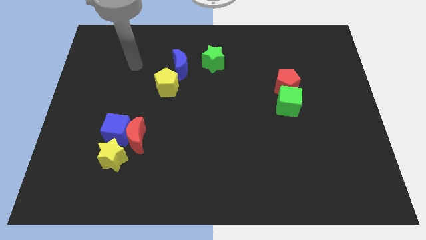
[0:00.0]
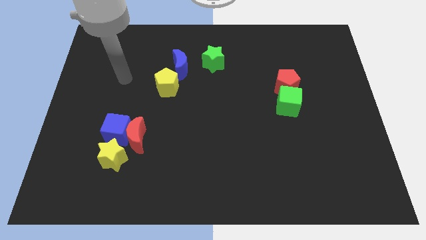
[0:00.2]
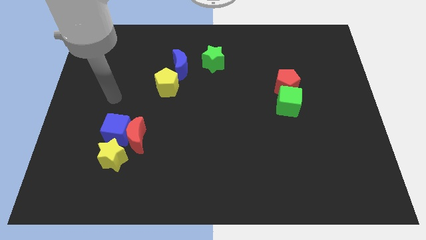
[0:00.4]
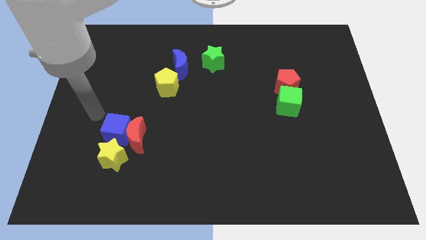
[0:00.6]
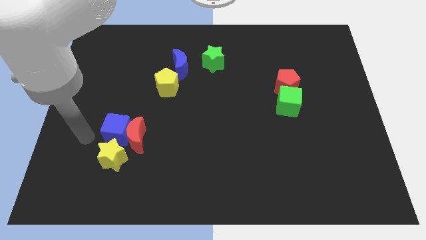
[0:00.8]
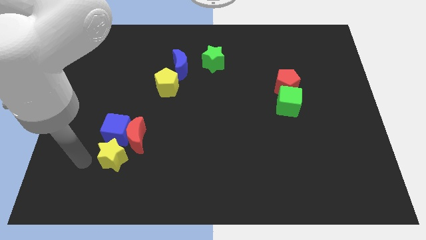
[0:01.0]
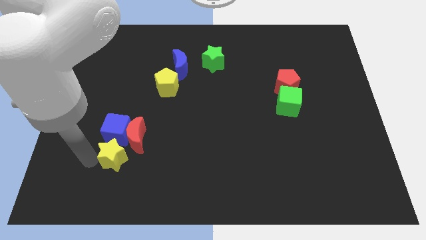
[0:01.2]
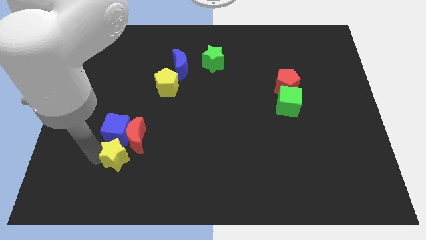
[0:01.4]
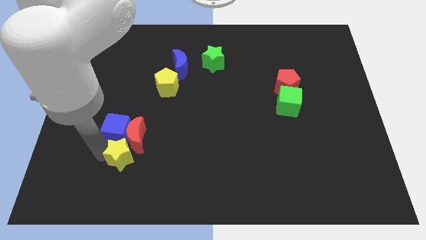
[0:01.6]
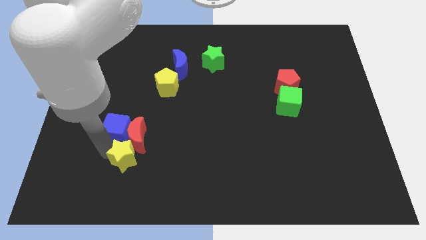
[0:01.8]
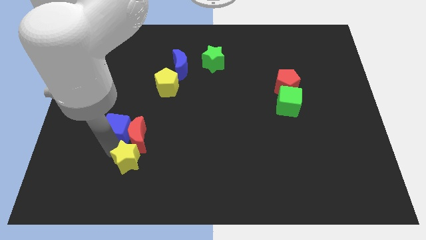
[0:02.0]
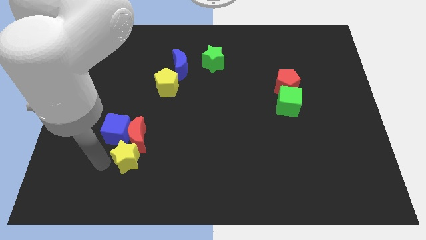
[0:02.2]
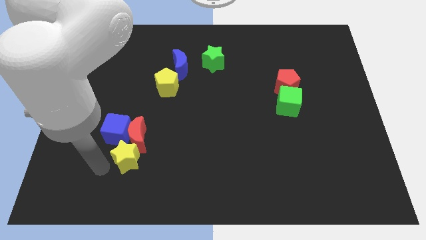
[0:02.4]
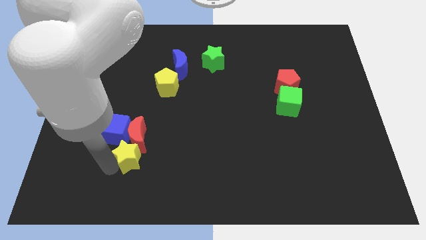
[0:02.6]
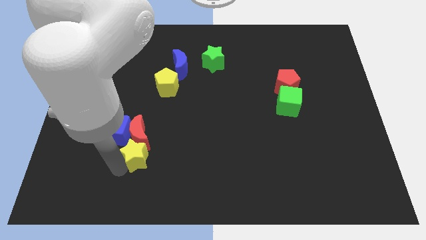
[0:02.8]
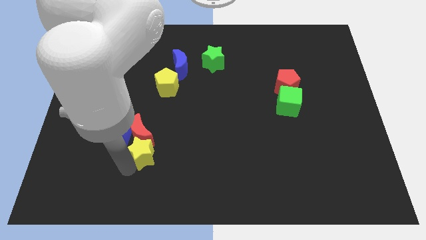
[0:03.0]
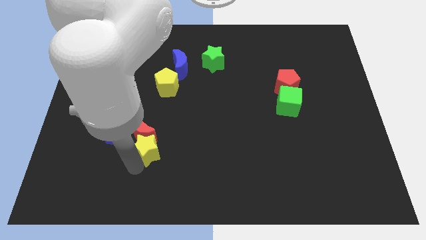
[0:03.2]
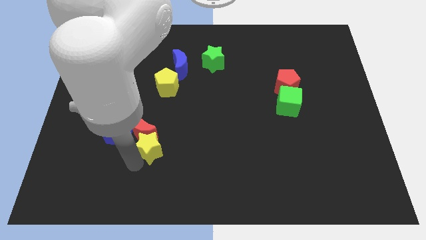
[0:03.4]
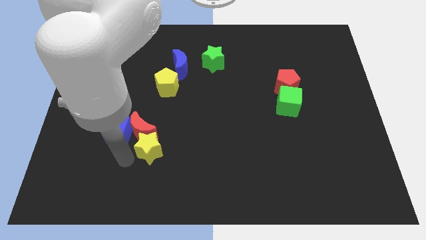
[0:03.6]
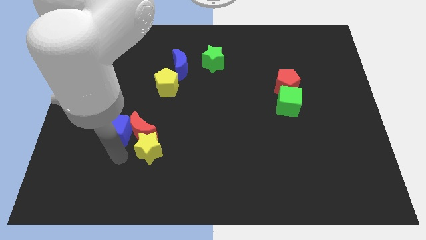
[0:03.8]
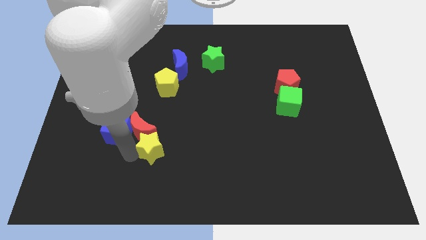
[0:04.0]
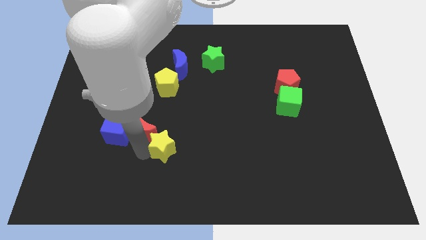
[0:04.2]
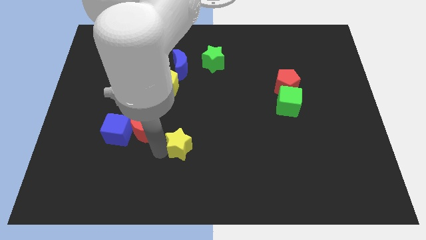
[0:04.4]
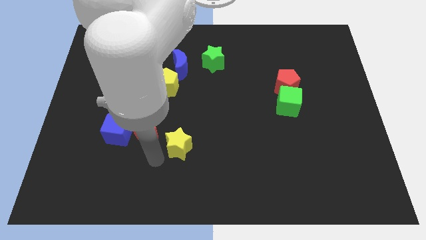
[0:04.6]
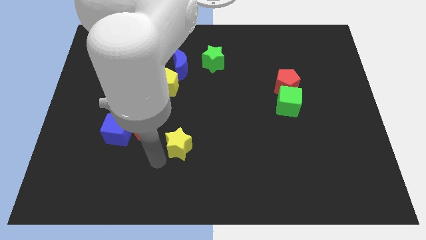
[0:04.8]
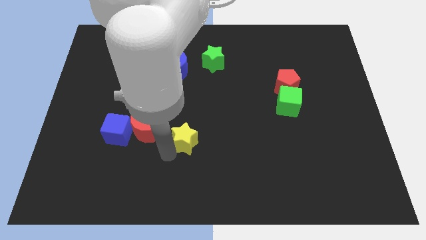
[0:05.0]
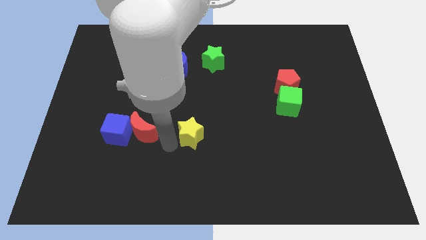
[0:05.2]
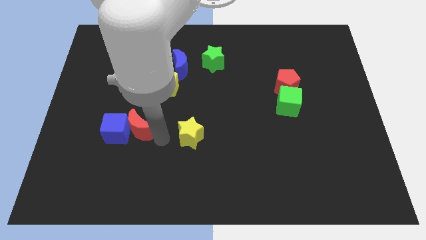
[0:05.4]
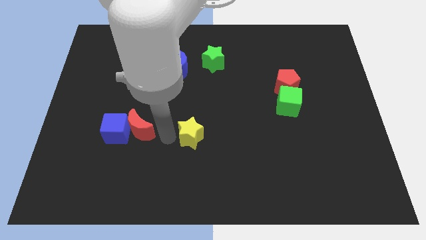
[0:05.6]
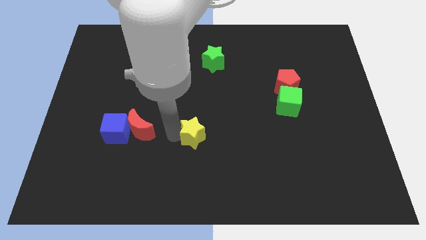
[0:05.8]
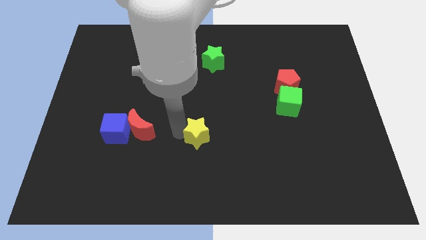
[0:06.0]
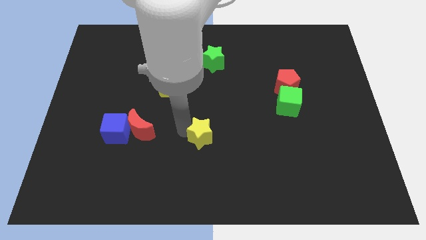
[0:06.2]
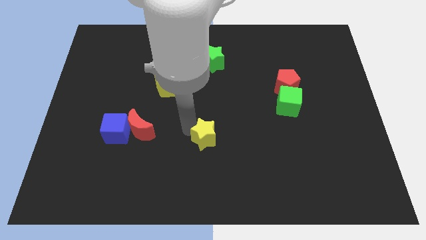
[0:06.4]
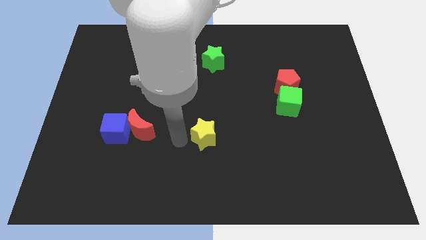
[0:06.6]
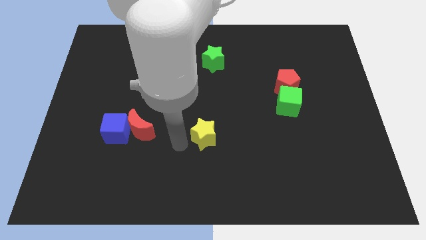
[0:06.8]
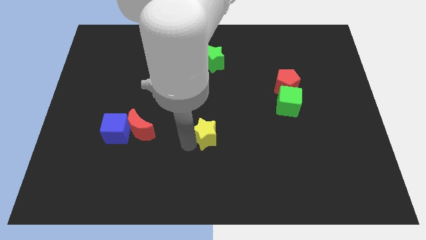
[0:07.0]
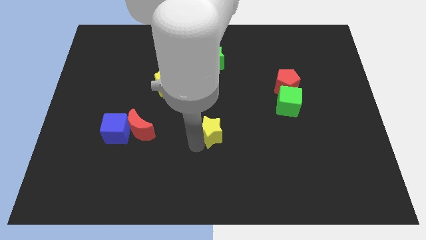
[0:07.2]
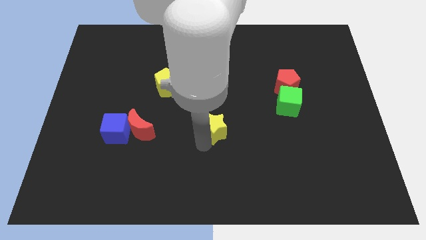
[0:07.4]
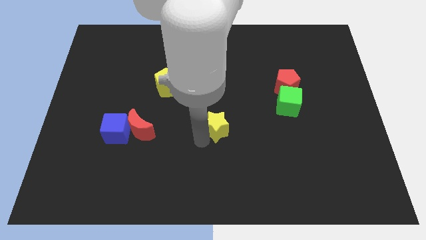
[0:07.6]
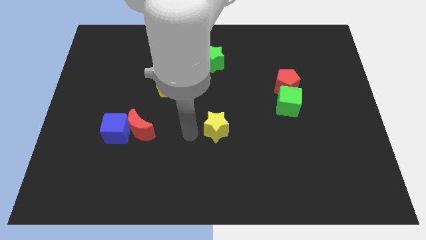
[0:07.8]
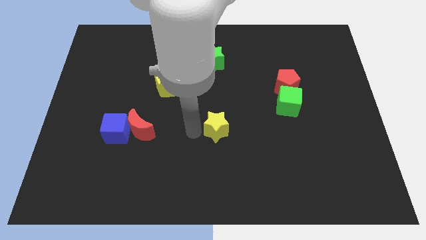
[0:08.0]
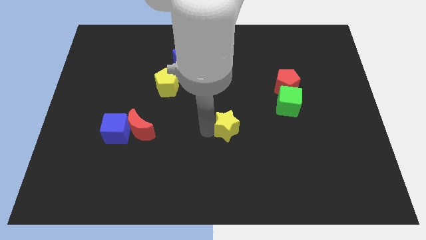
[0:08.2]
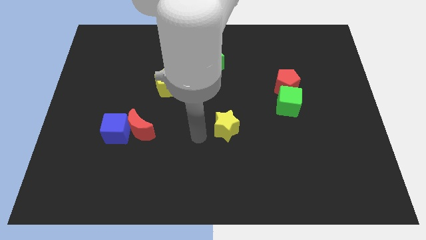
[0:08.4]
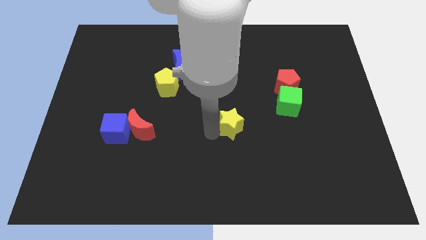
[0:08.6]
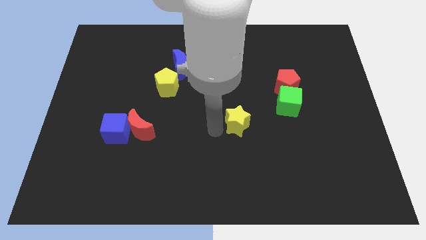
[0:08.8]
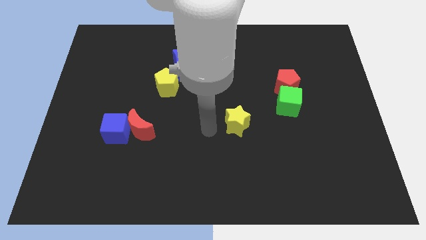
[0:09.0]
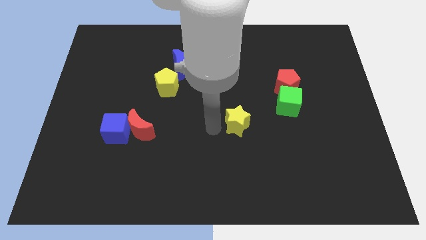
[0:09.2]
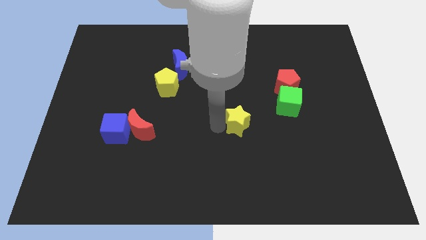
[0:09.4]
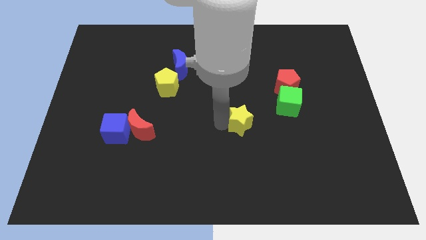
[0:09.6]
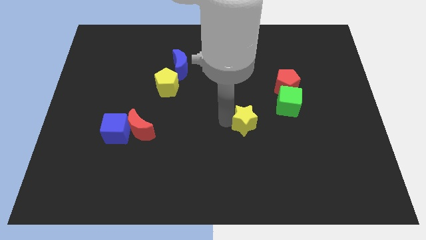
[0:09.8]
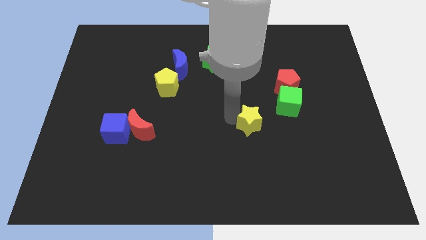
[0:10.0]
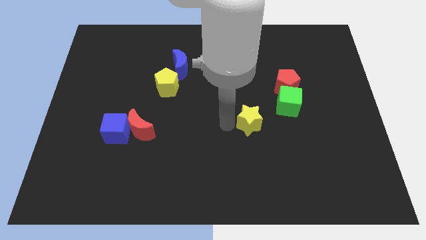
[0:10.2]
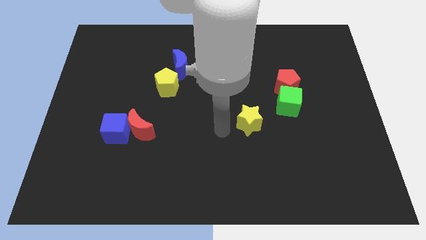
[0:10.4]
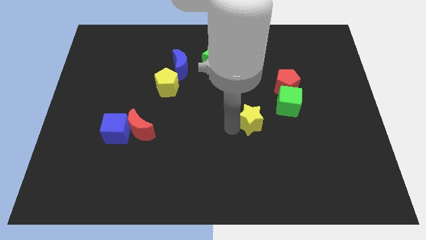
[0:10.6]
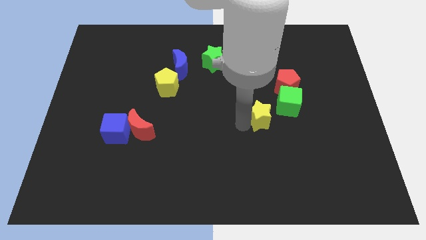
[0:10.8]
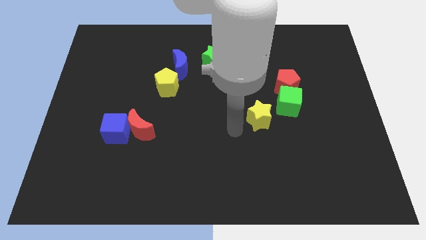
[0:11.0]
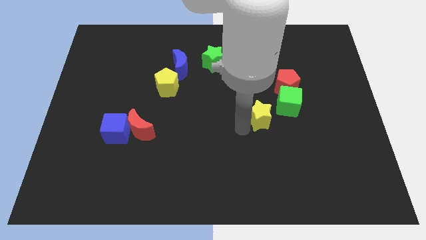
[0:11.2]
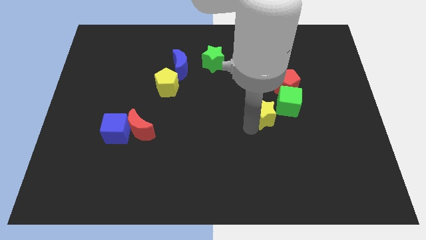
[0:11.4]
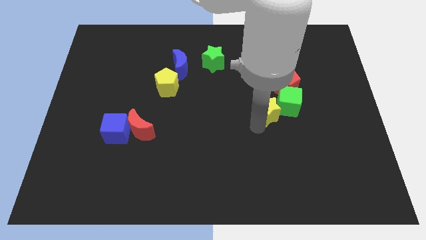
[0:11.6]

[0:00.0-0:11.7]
put the yellow star towards the green cube

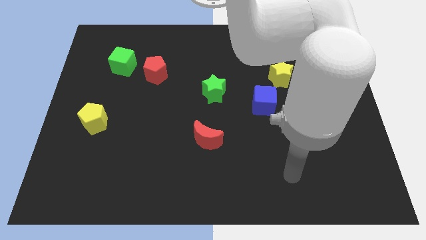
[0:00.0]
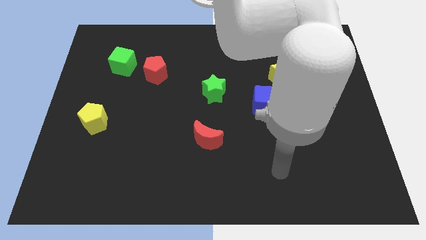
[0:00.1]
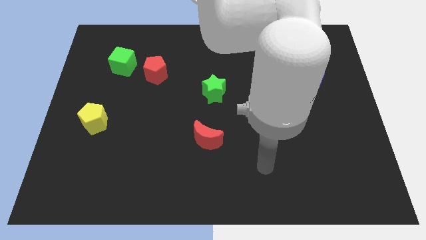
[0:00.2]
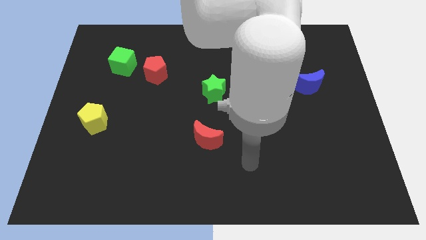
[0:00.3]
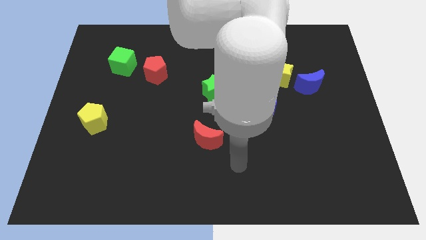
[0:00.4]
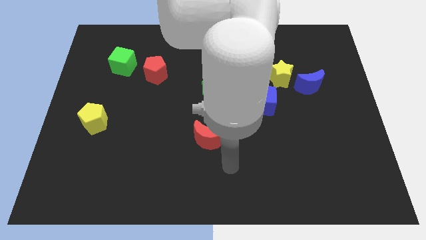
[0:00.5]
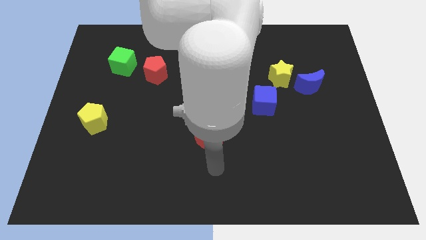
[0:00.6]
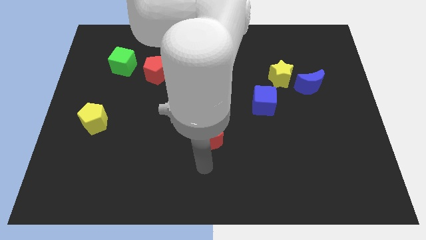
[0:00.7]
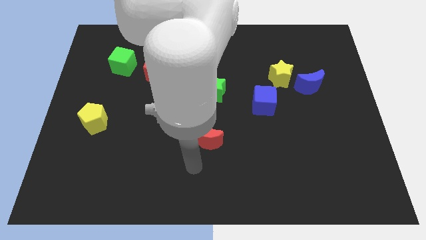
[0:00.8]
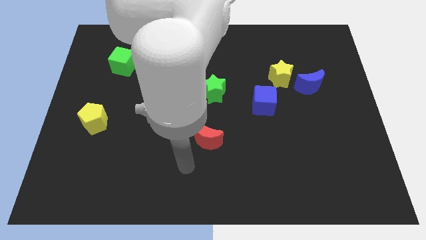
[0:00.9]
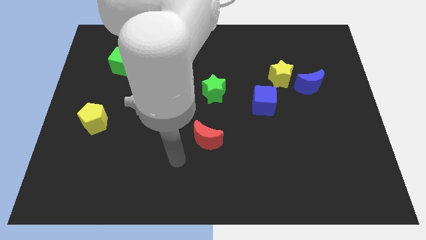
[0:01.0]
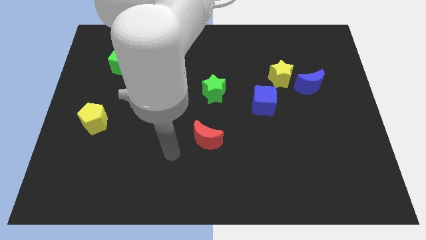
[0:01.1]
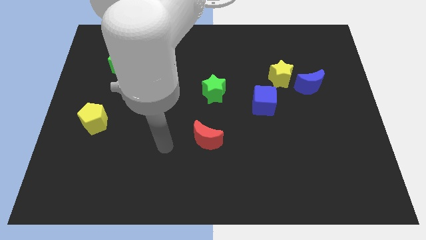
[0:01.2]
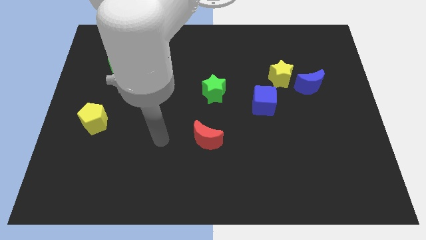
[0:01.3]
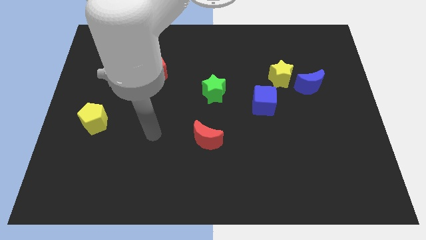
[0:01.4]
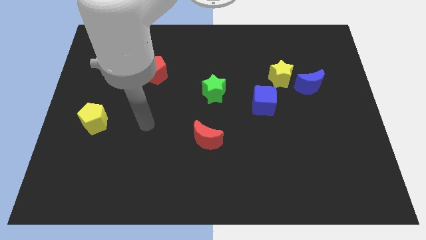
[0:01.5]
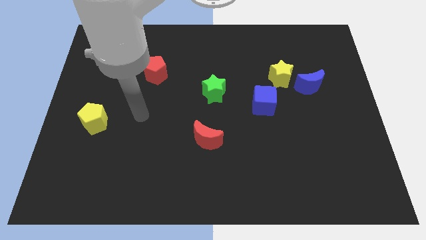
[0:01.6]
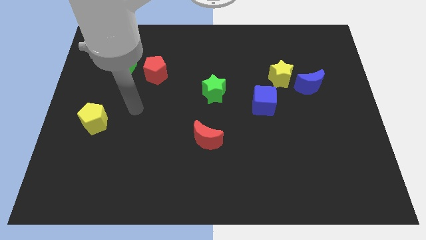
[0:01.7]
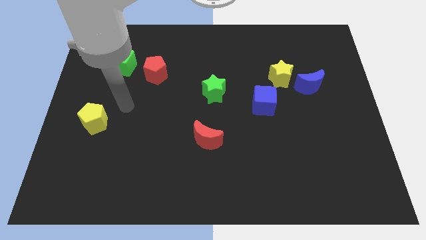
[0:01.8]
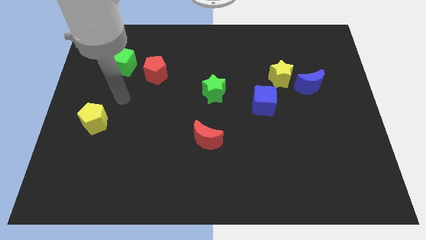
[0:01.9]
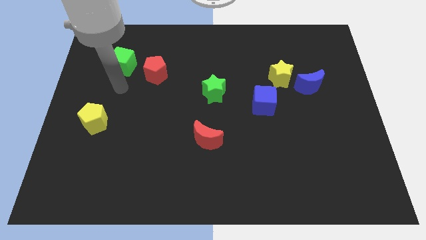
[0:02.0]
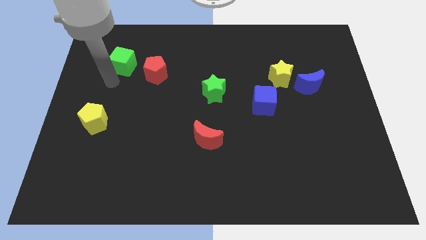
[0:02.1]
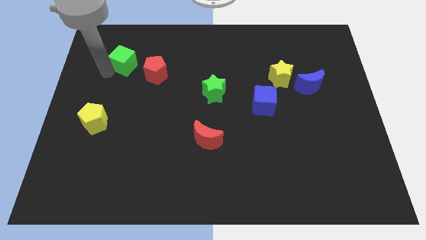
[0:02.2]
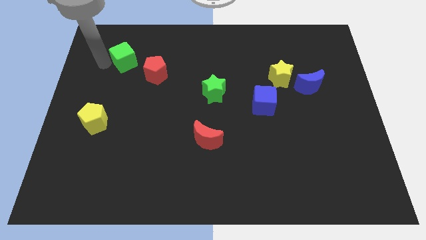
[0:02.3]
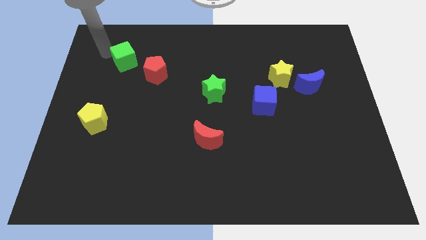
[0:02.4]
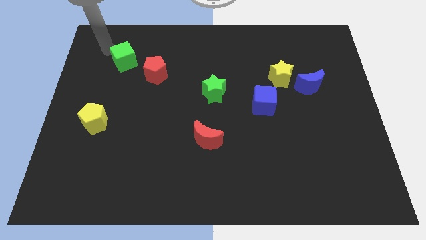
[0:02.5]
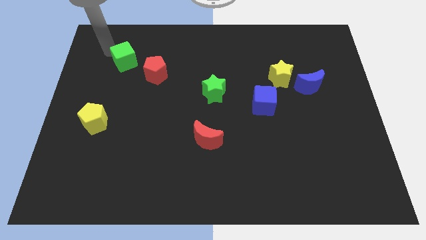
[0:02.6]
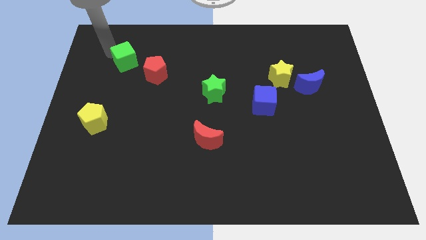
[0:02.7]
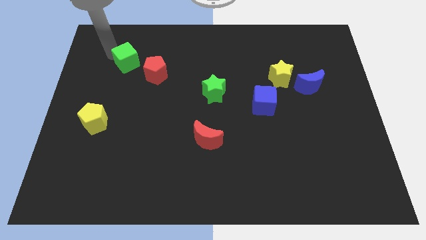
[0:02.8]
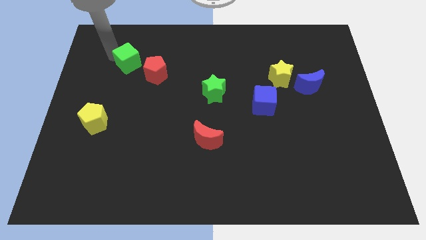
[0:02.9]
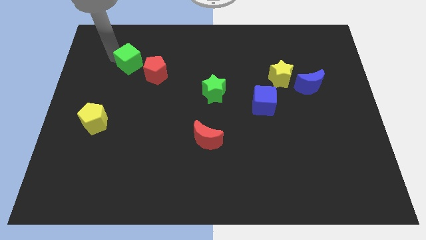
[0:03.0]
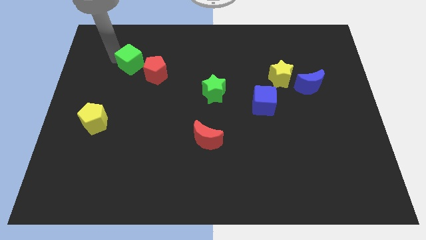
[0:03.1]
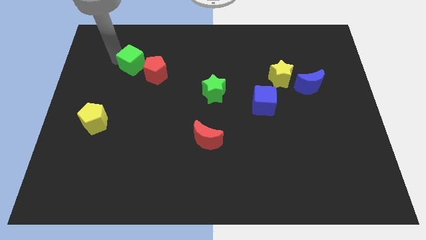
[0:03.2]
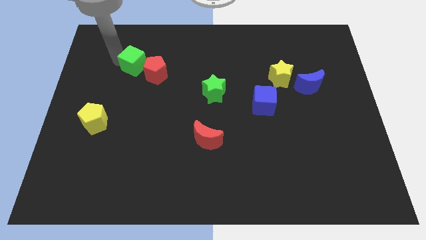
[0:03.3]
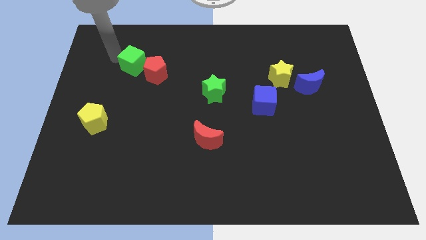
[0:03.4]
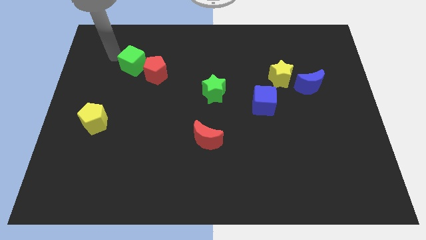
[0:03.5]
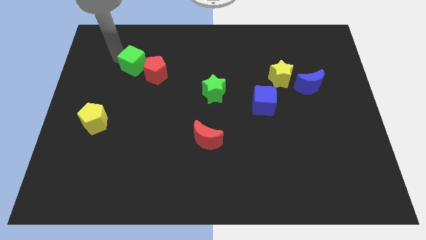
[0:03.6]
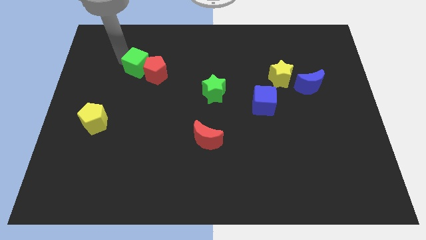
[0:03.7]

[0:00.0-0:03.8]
slide the green cube towards the red pentagon
